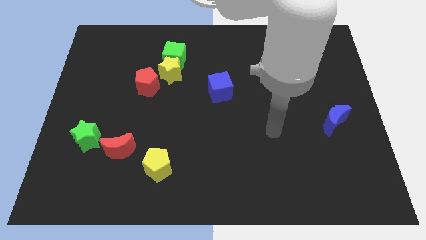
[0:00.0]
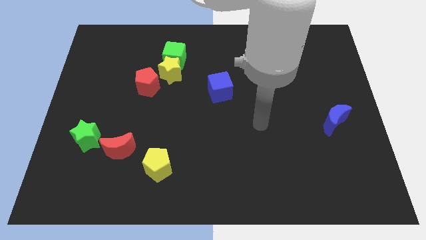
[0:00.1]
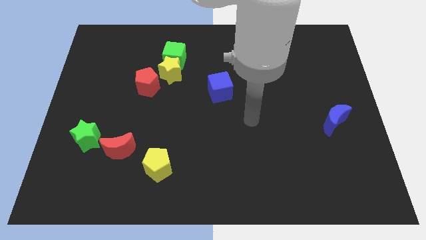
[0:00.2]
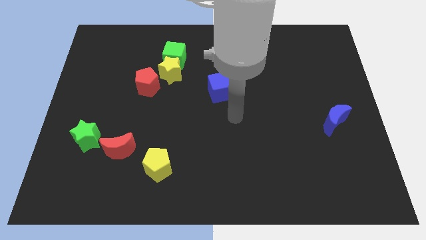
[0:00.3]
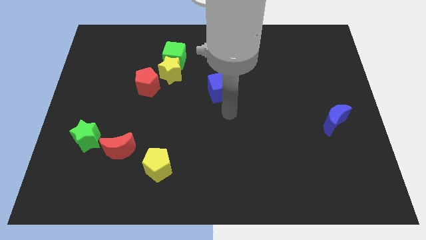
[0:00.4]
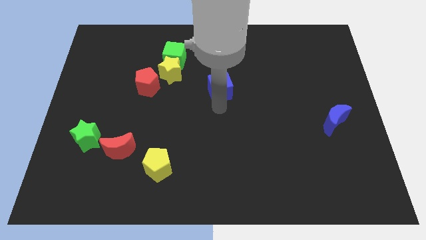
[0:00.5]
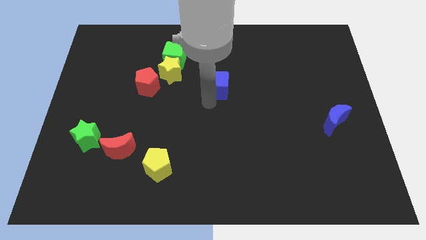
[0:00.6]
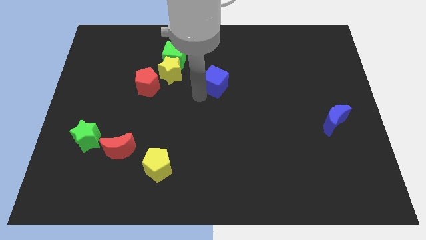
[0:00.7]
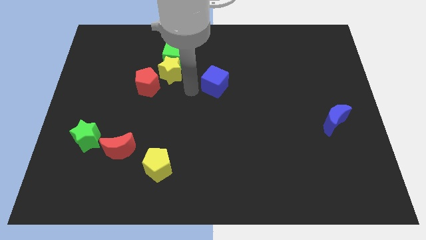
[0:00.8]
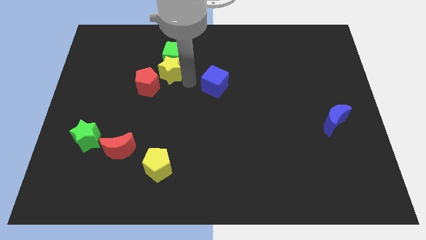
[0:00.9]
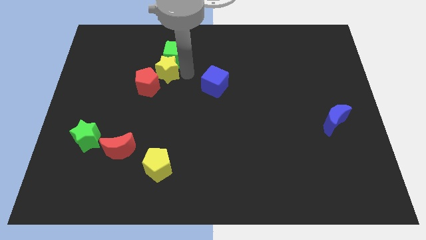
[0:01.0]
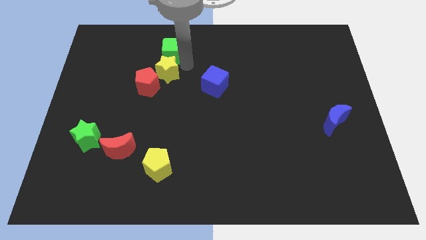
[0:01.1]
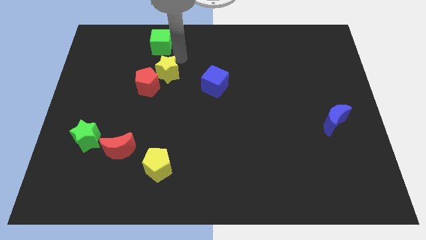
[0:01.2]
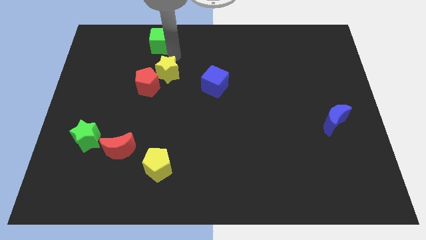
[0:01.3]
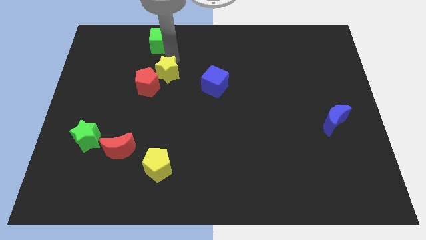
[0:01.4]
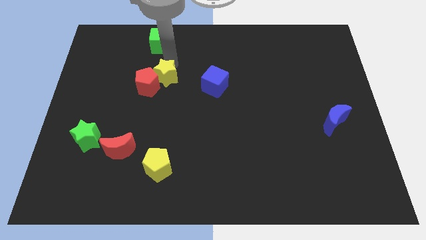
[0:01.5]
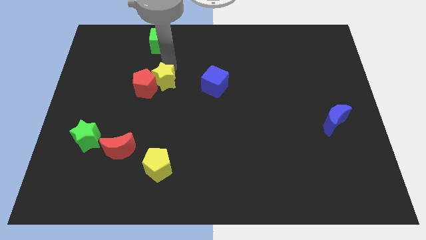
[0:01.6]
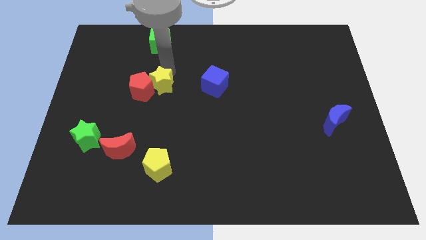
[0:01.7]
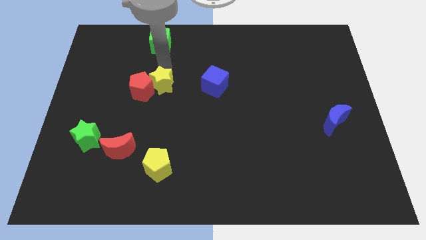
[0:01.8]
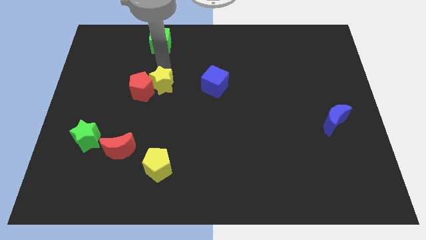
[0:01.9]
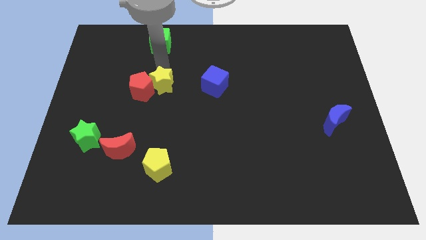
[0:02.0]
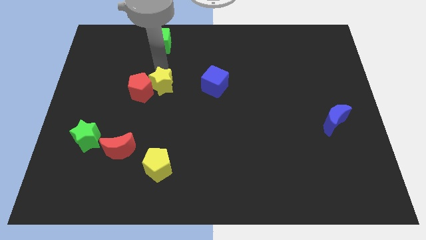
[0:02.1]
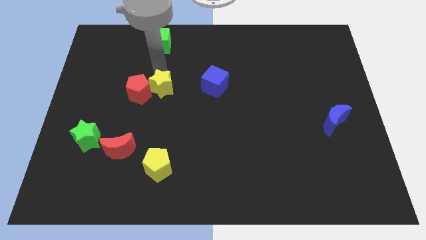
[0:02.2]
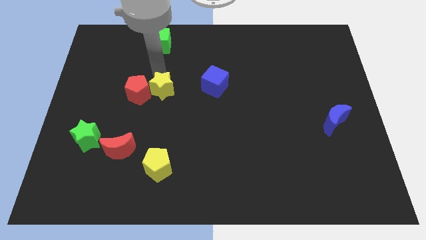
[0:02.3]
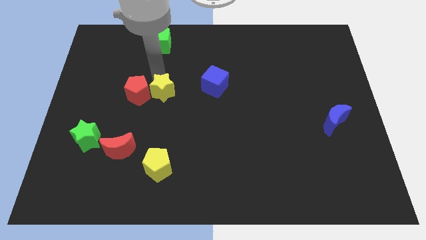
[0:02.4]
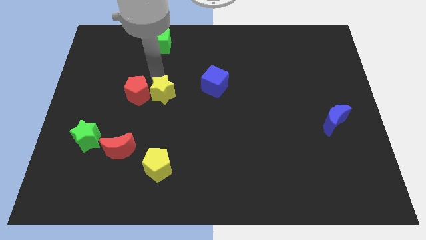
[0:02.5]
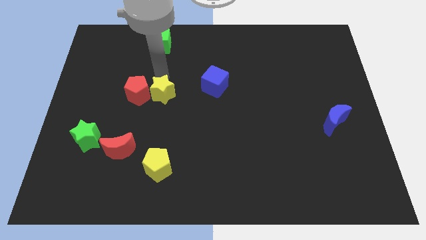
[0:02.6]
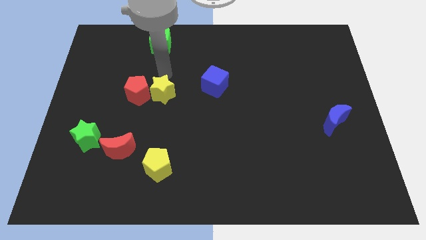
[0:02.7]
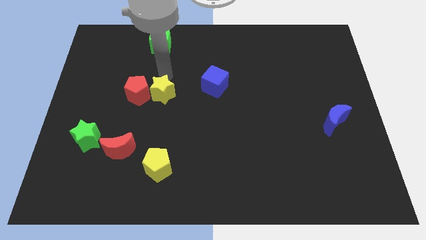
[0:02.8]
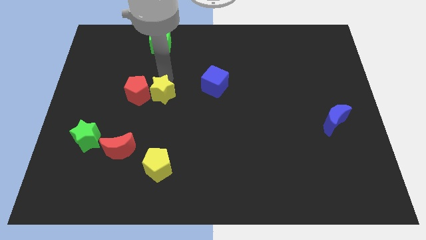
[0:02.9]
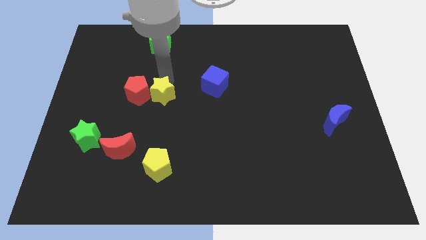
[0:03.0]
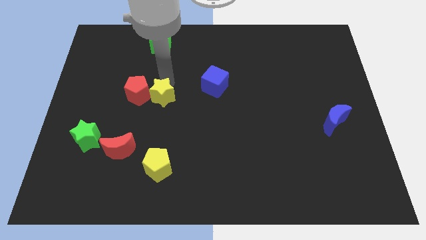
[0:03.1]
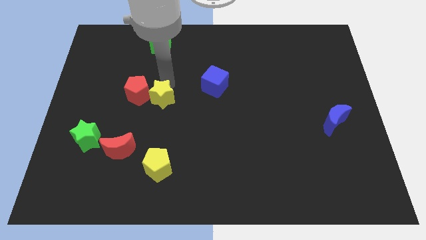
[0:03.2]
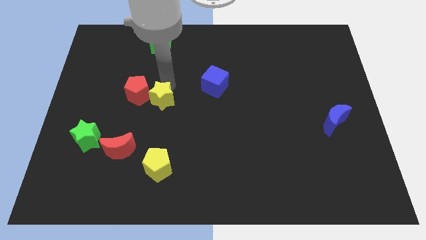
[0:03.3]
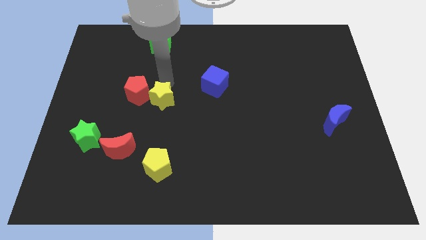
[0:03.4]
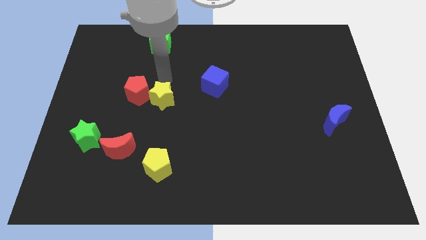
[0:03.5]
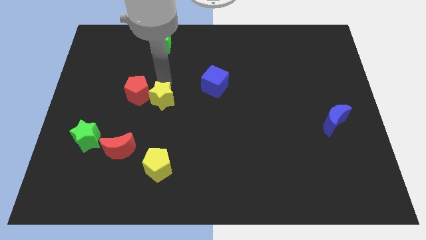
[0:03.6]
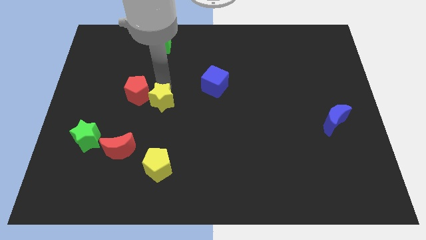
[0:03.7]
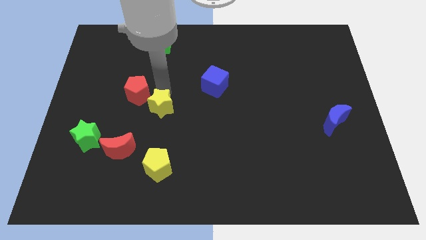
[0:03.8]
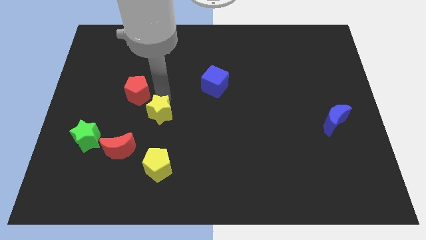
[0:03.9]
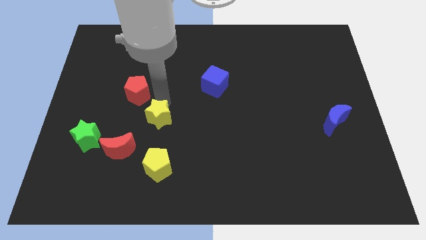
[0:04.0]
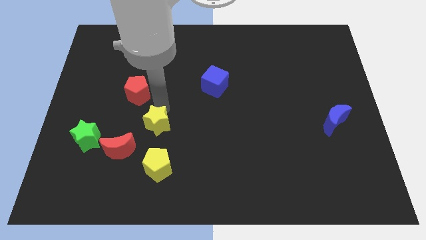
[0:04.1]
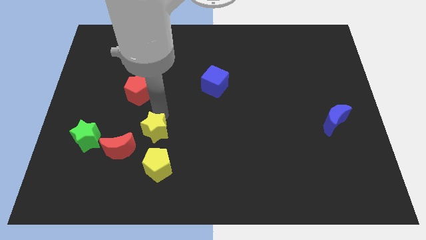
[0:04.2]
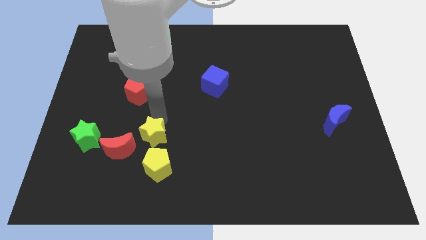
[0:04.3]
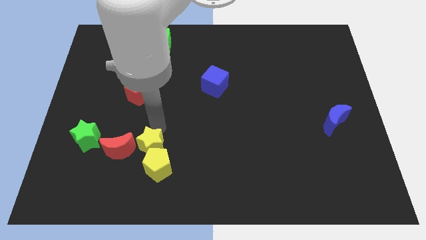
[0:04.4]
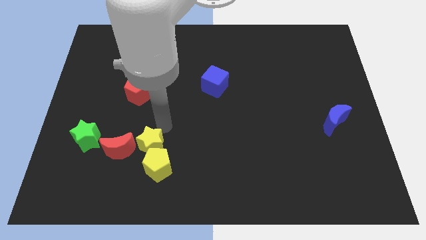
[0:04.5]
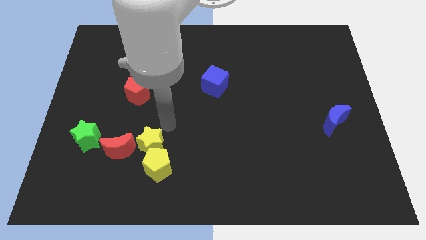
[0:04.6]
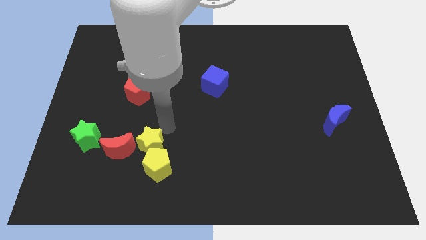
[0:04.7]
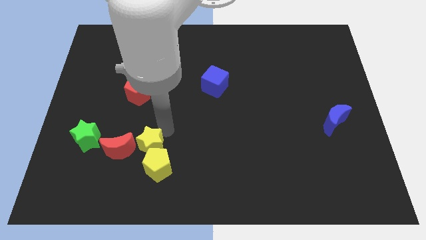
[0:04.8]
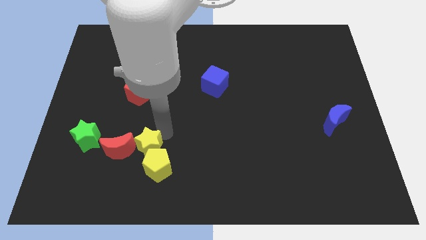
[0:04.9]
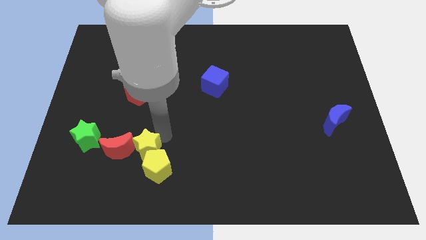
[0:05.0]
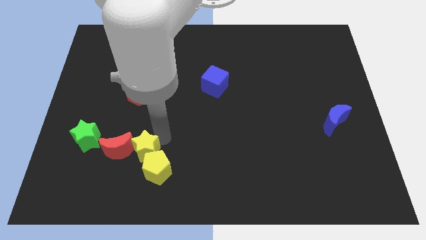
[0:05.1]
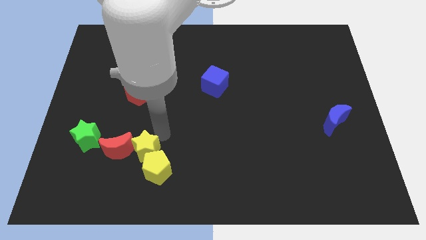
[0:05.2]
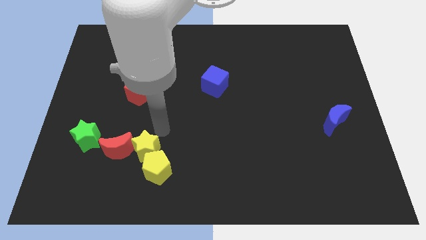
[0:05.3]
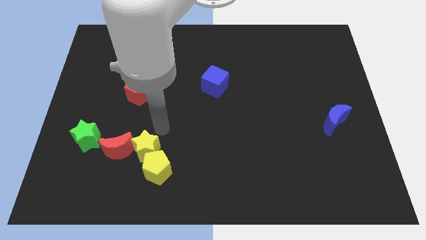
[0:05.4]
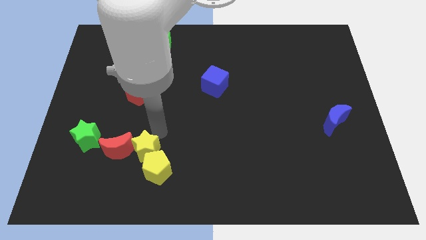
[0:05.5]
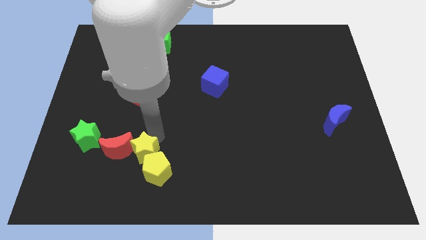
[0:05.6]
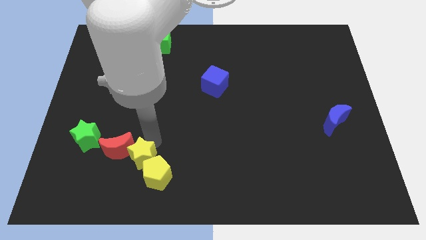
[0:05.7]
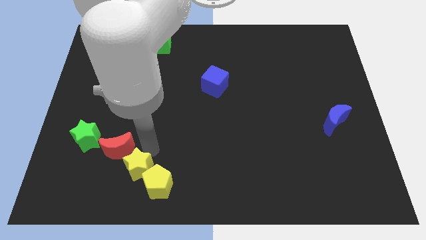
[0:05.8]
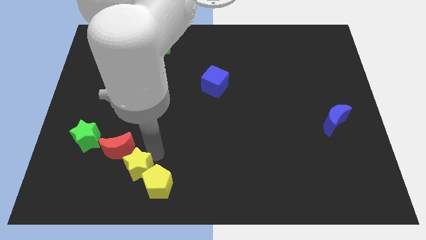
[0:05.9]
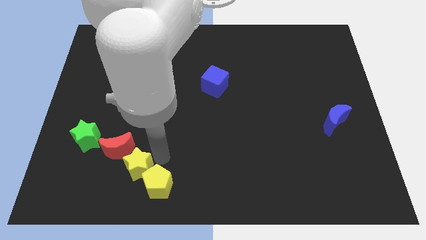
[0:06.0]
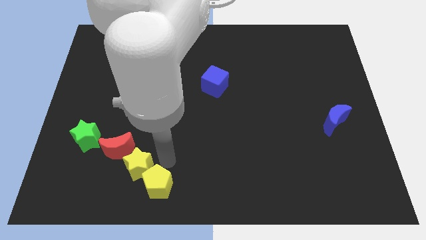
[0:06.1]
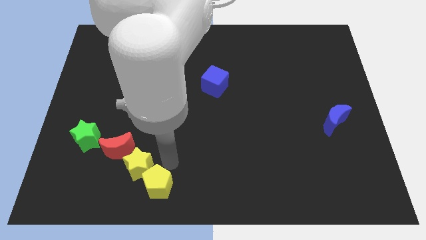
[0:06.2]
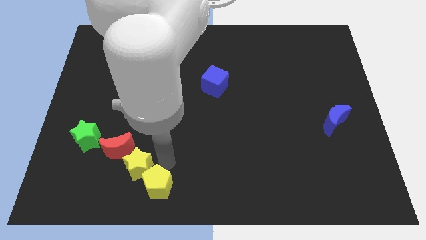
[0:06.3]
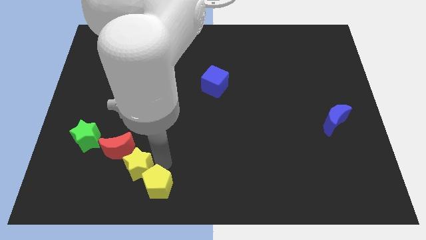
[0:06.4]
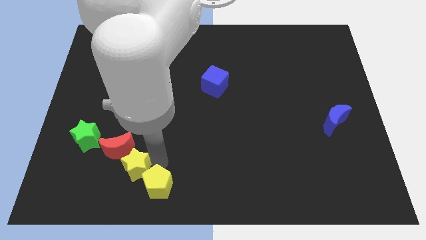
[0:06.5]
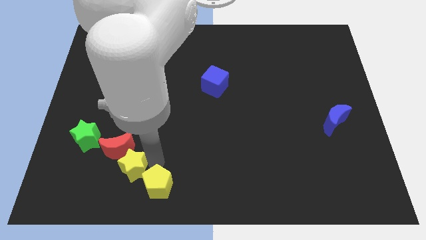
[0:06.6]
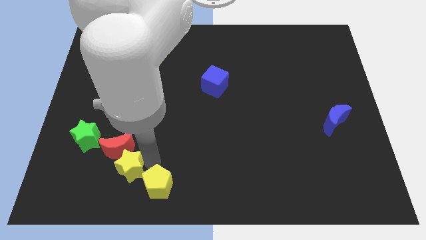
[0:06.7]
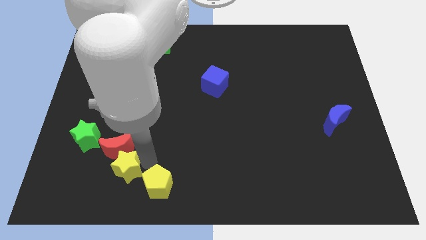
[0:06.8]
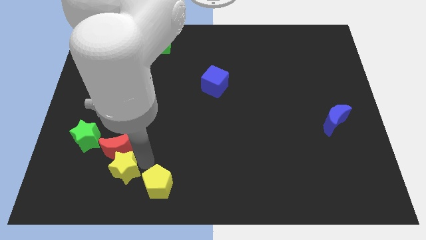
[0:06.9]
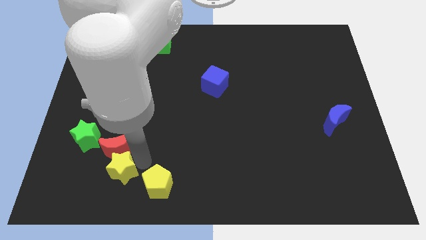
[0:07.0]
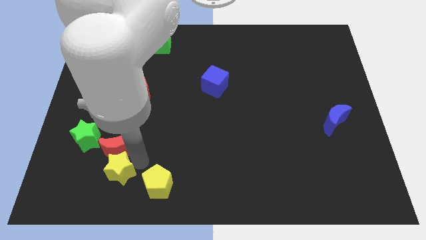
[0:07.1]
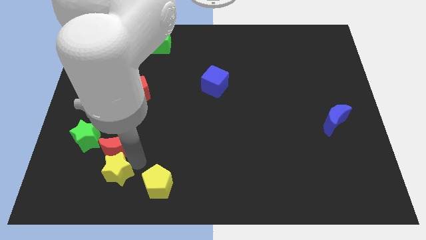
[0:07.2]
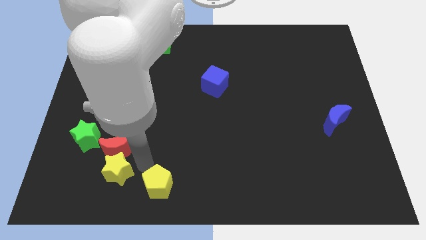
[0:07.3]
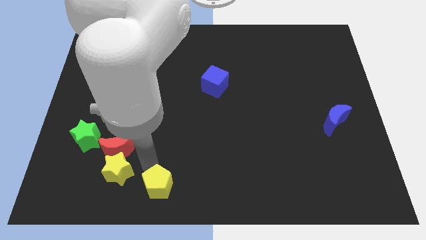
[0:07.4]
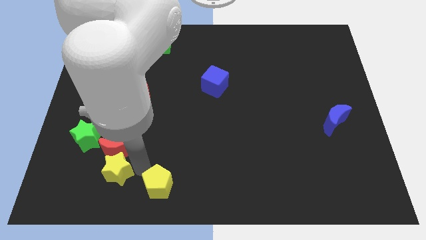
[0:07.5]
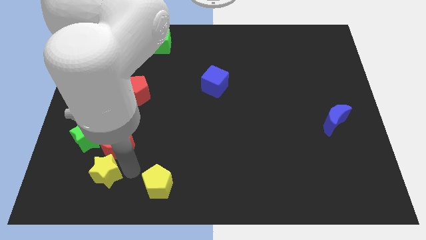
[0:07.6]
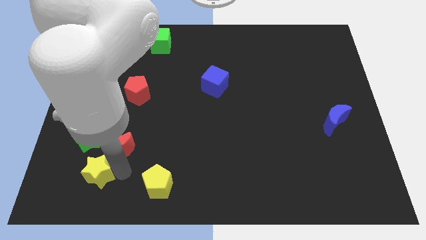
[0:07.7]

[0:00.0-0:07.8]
slide the yellow star to the bottom of the green star
